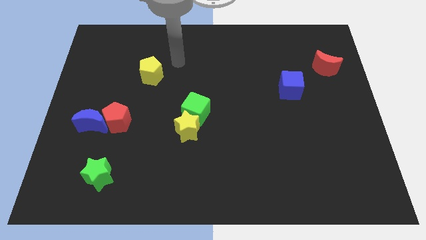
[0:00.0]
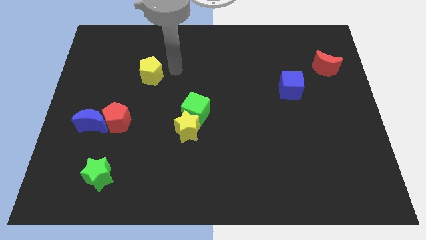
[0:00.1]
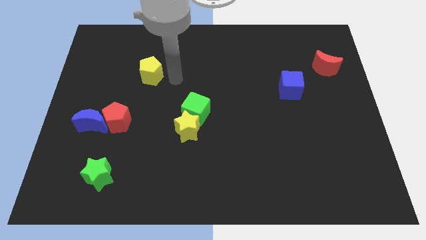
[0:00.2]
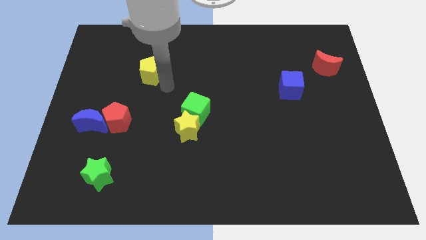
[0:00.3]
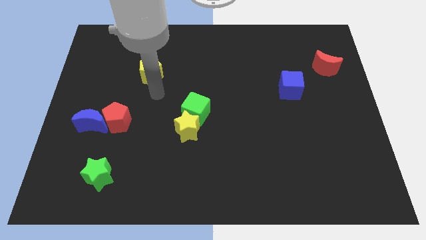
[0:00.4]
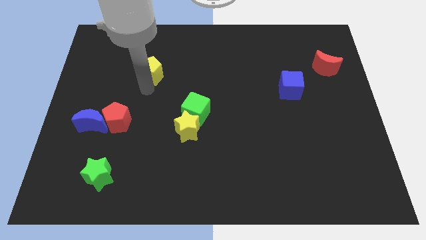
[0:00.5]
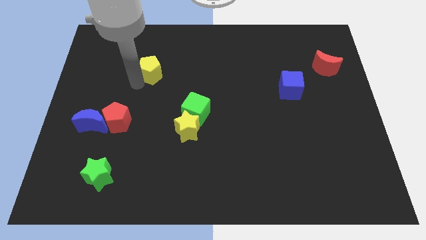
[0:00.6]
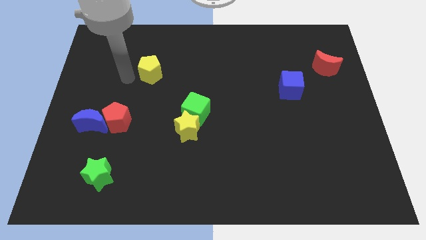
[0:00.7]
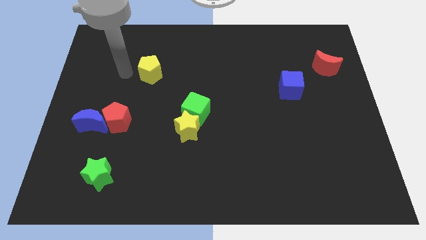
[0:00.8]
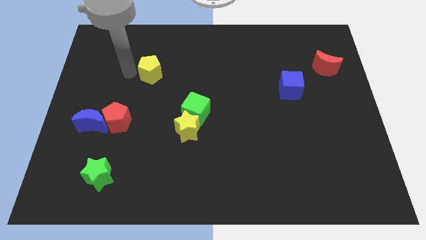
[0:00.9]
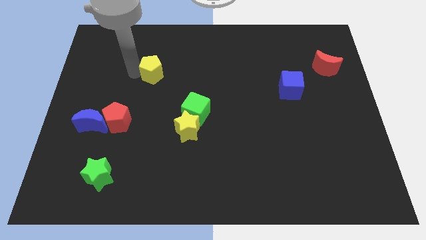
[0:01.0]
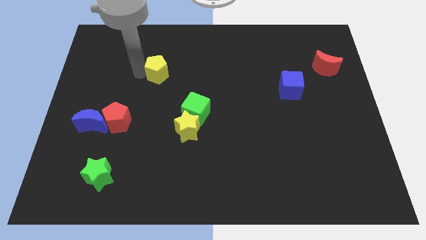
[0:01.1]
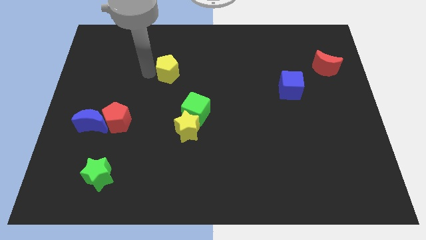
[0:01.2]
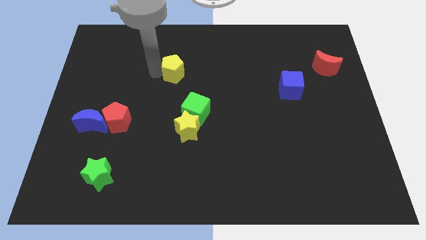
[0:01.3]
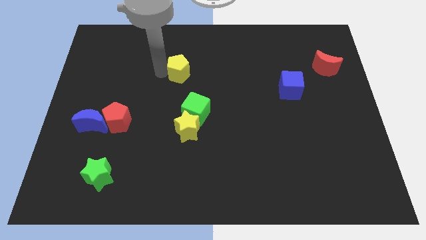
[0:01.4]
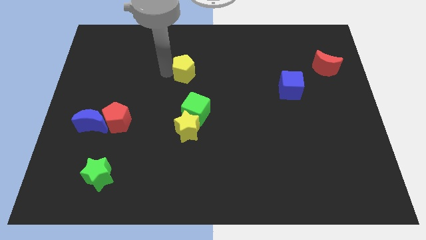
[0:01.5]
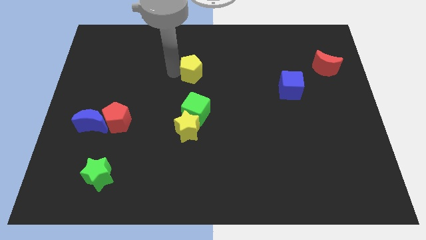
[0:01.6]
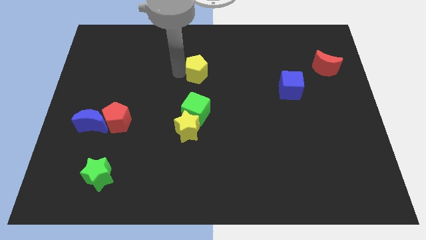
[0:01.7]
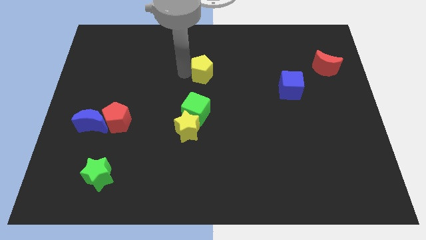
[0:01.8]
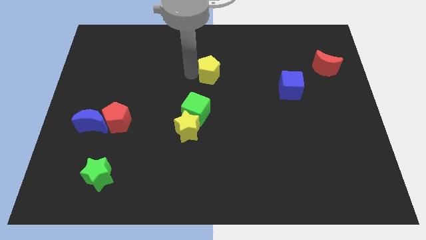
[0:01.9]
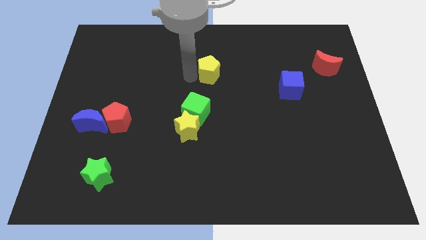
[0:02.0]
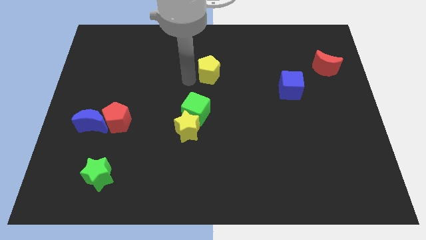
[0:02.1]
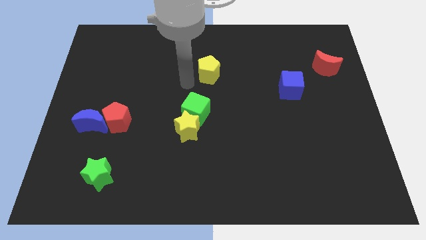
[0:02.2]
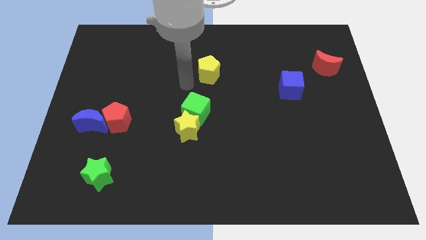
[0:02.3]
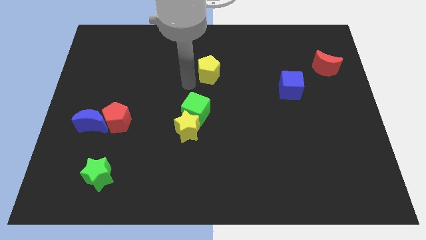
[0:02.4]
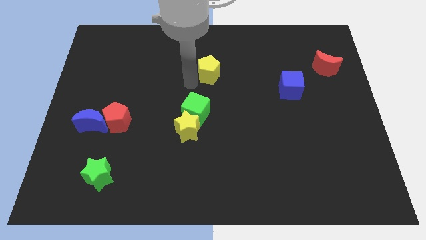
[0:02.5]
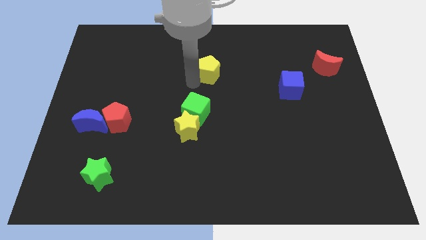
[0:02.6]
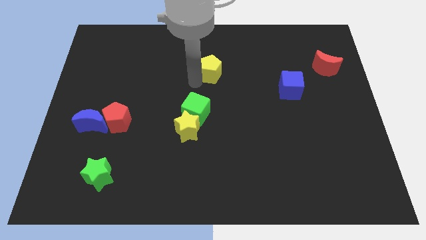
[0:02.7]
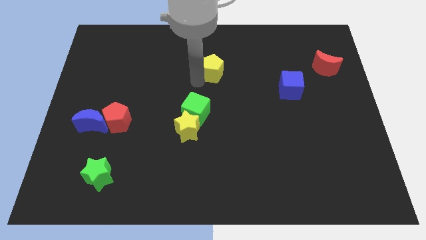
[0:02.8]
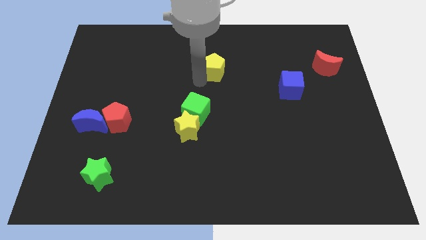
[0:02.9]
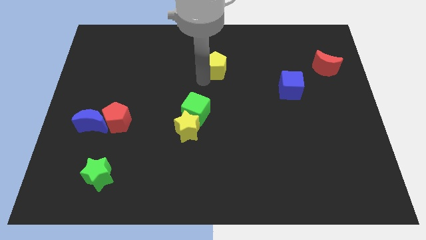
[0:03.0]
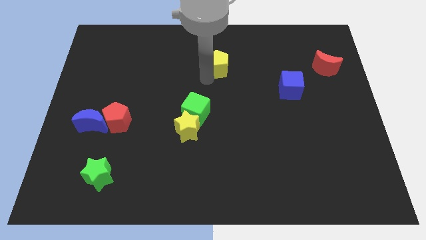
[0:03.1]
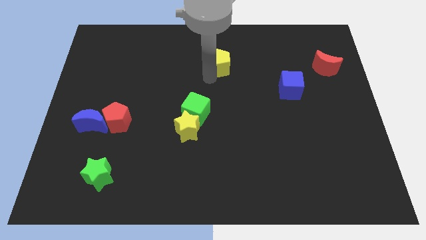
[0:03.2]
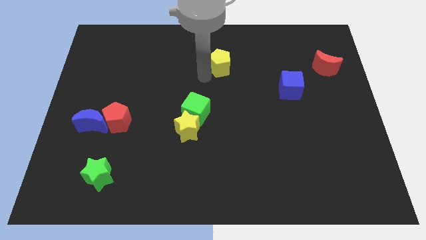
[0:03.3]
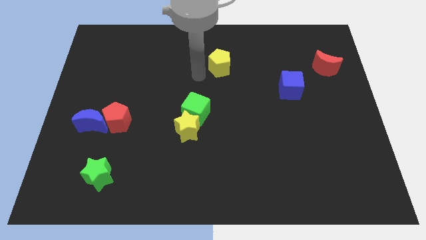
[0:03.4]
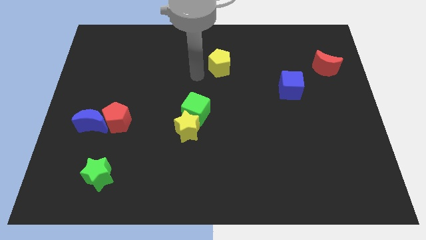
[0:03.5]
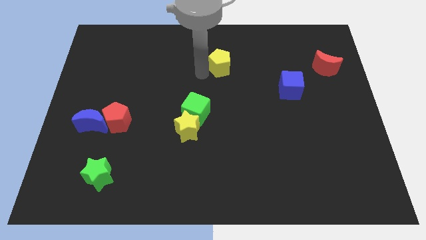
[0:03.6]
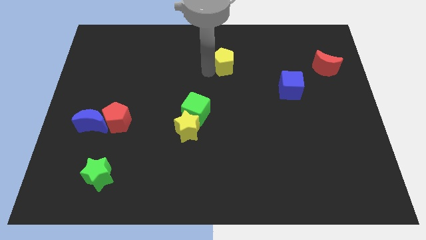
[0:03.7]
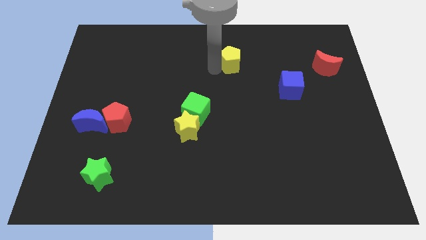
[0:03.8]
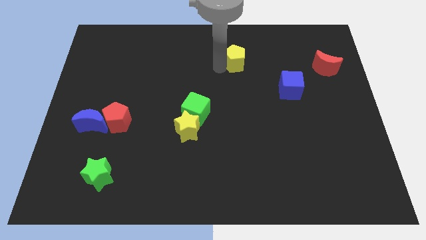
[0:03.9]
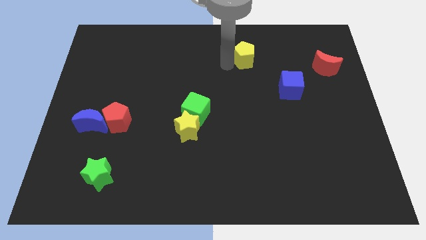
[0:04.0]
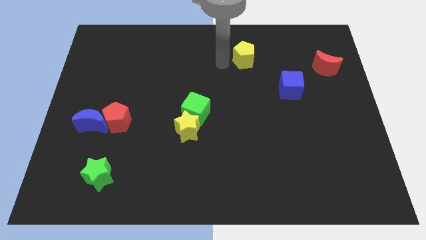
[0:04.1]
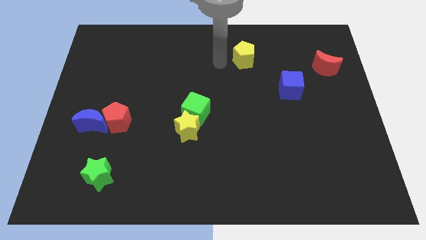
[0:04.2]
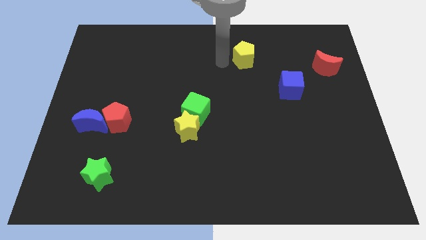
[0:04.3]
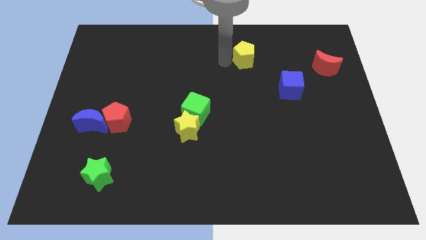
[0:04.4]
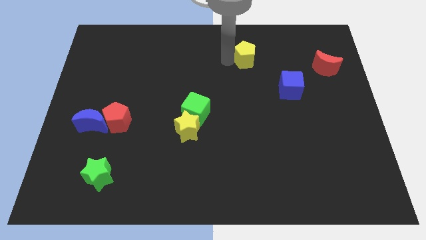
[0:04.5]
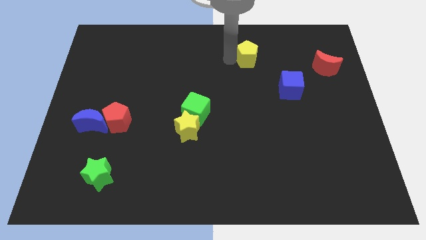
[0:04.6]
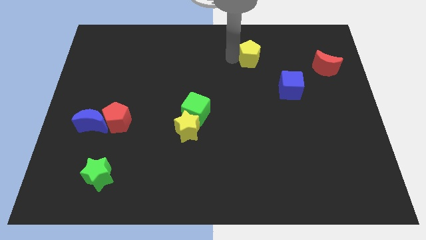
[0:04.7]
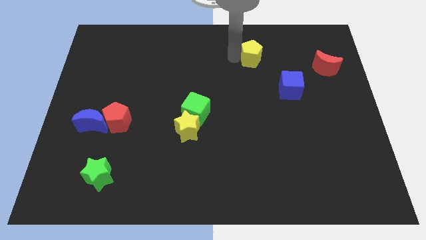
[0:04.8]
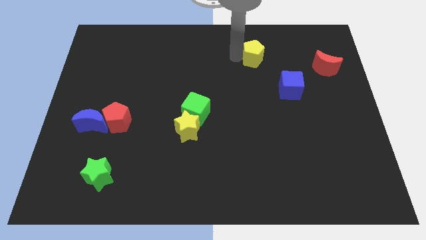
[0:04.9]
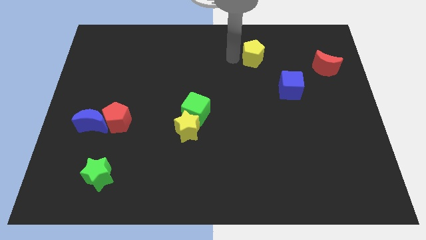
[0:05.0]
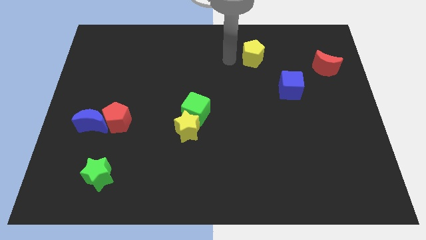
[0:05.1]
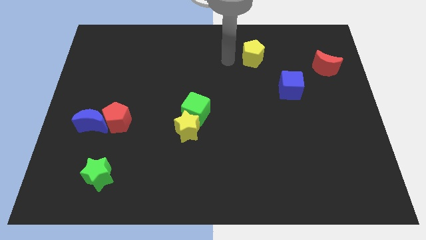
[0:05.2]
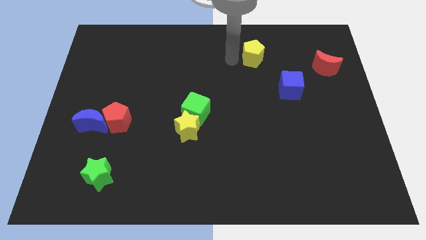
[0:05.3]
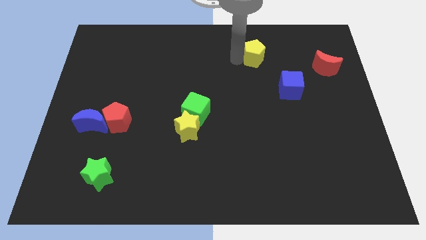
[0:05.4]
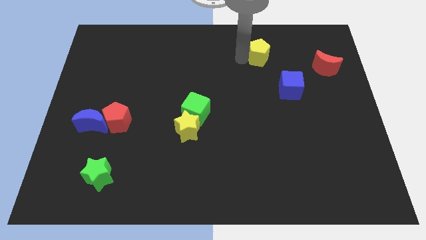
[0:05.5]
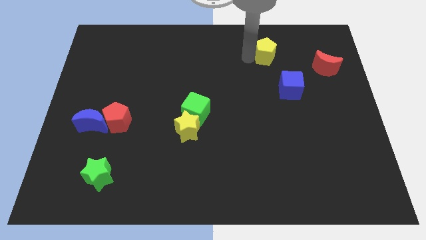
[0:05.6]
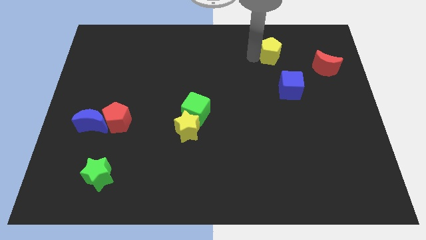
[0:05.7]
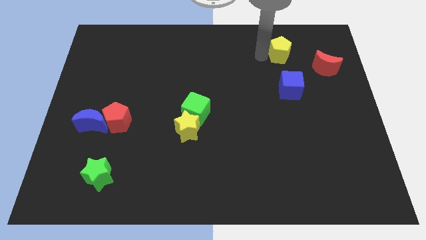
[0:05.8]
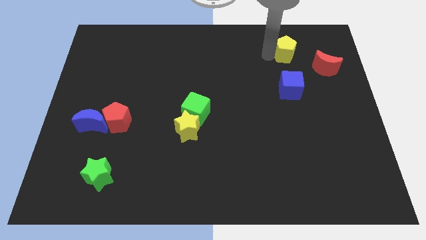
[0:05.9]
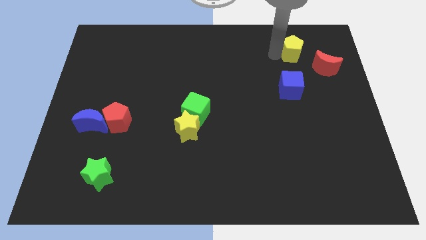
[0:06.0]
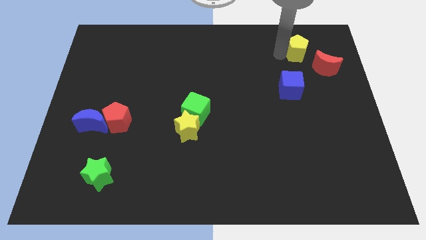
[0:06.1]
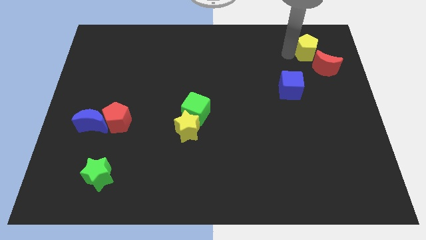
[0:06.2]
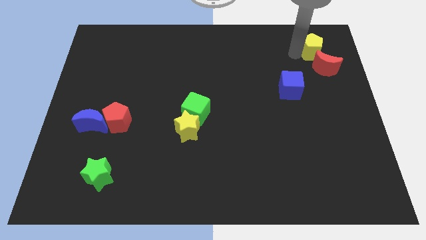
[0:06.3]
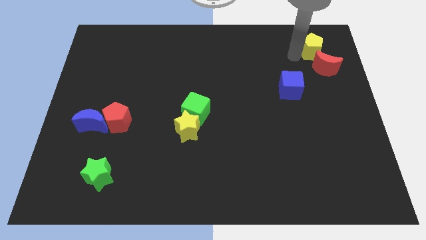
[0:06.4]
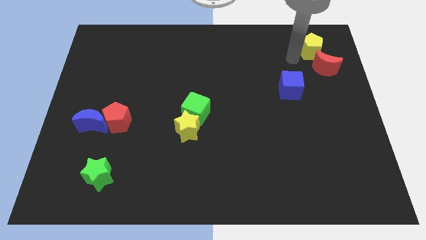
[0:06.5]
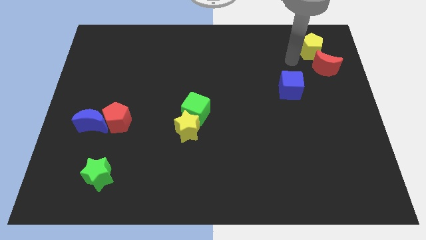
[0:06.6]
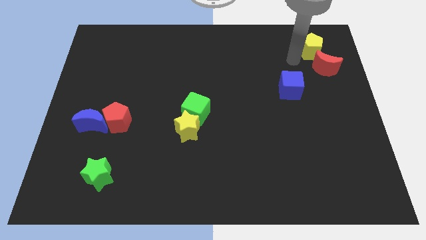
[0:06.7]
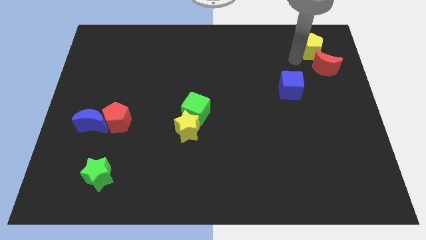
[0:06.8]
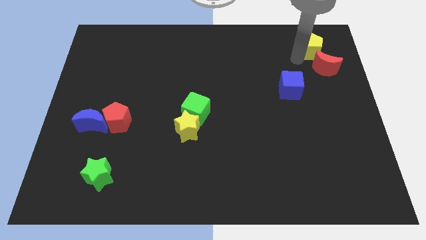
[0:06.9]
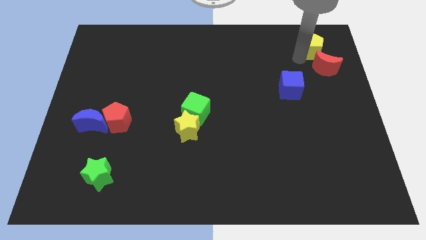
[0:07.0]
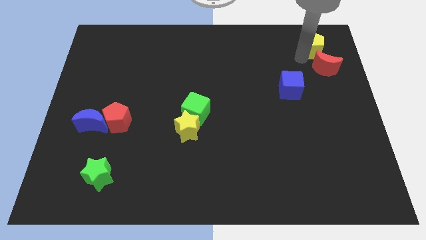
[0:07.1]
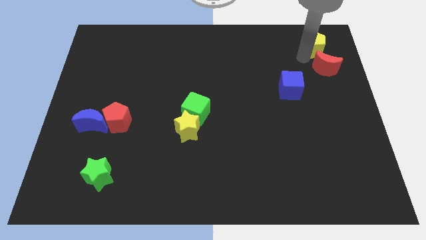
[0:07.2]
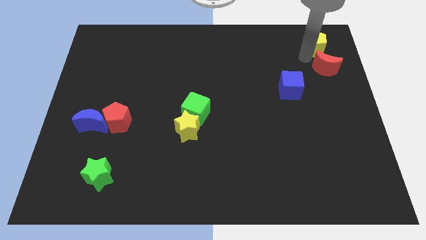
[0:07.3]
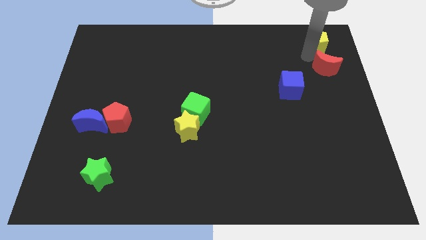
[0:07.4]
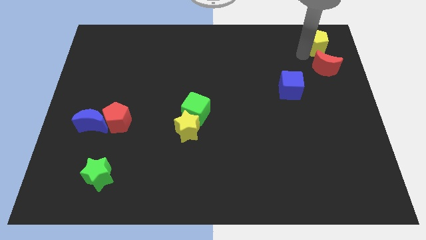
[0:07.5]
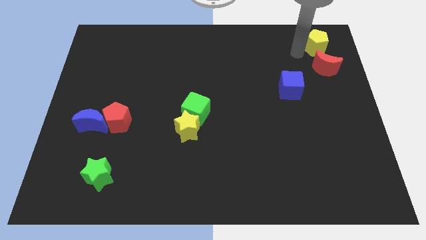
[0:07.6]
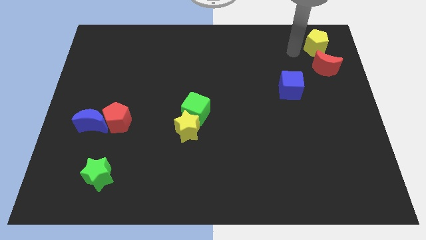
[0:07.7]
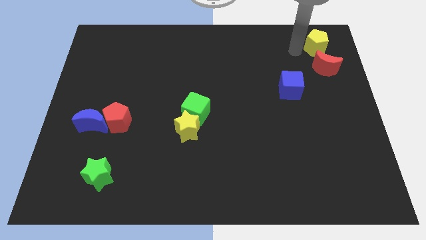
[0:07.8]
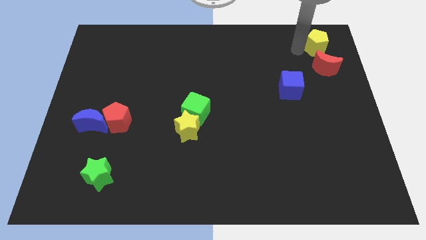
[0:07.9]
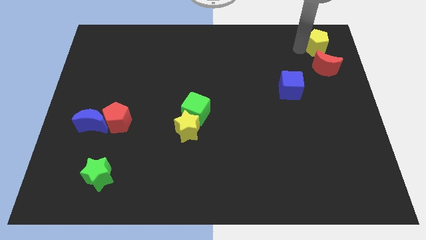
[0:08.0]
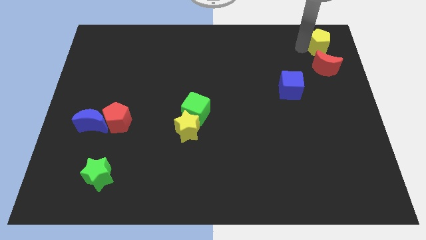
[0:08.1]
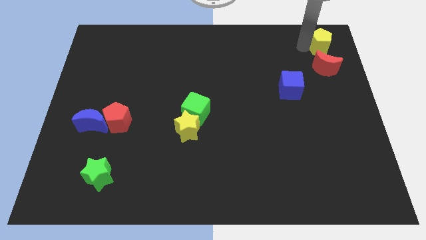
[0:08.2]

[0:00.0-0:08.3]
move the yellow pentagon to the top right
